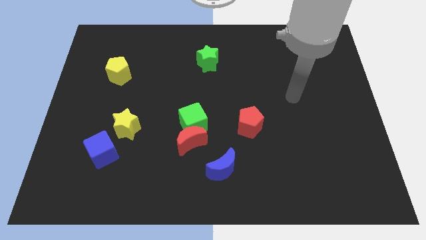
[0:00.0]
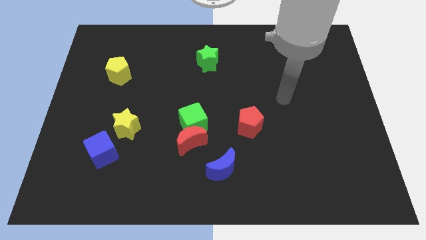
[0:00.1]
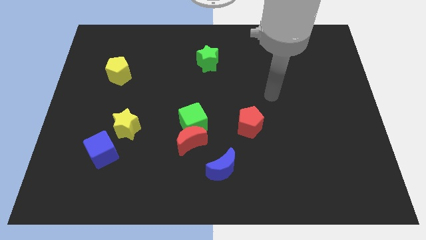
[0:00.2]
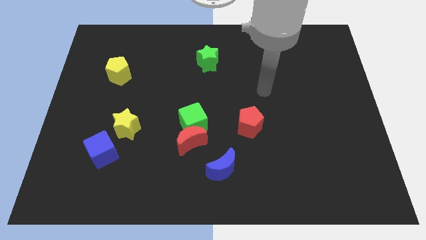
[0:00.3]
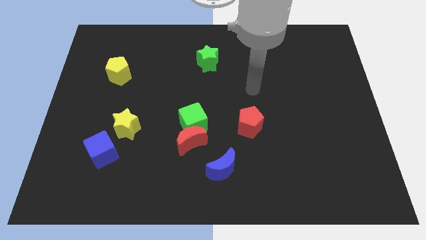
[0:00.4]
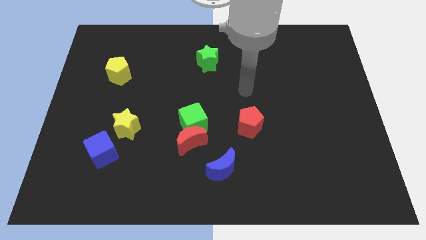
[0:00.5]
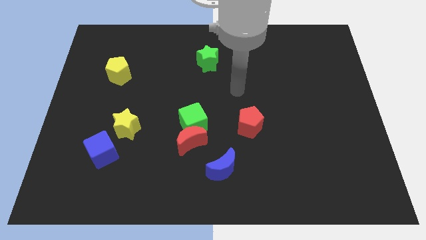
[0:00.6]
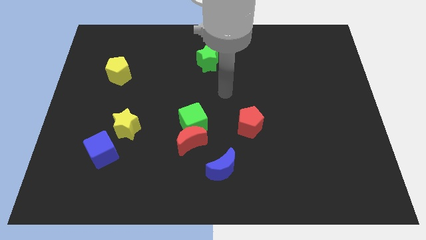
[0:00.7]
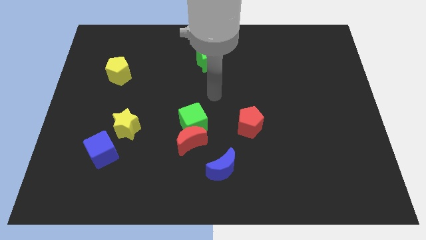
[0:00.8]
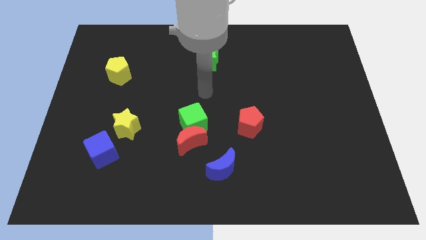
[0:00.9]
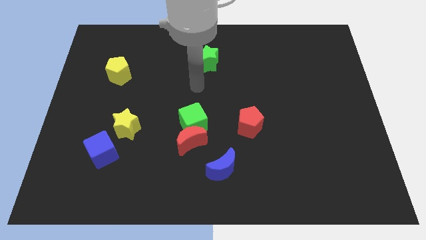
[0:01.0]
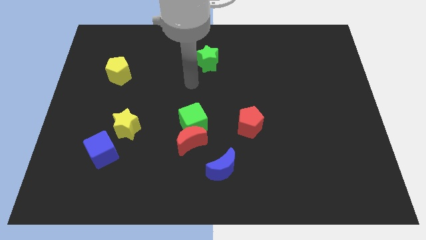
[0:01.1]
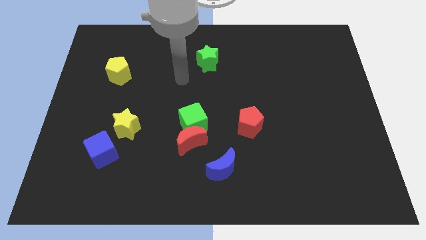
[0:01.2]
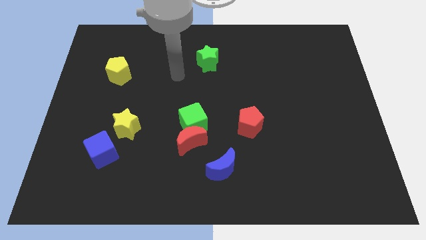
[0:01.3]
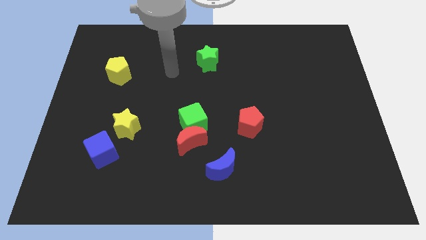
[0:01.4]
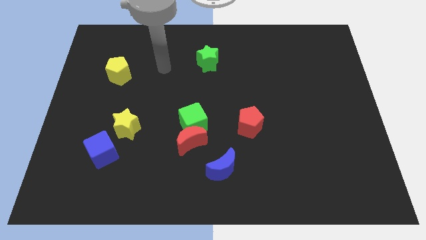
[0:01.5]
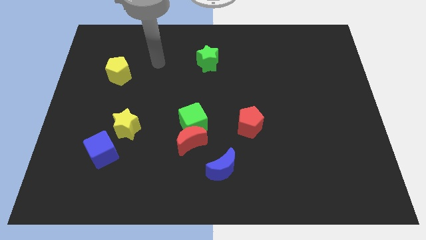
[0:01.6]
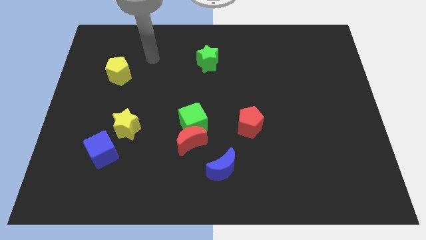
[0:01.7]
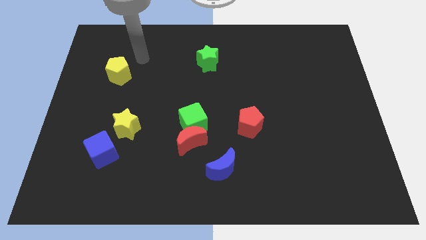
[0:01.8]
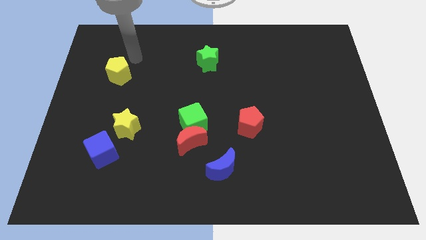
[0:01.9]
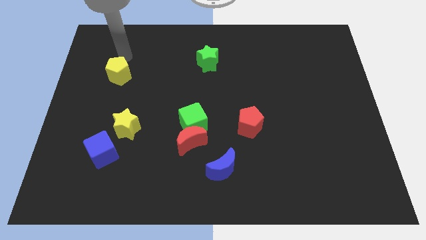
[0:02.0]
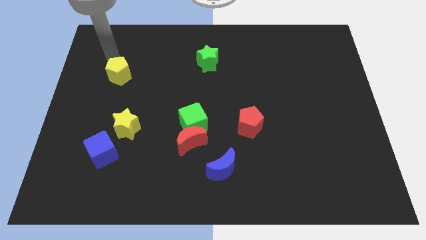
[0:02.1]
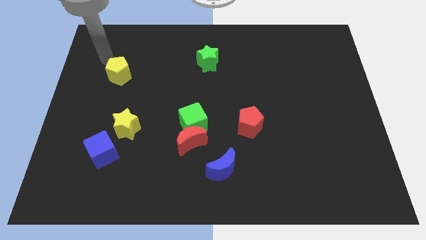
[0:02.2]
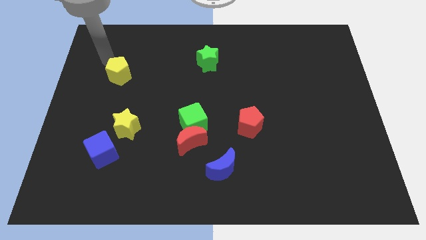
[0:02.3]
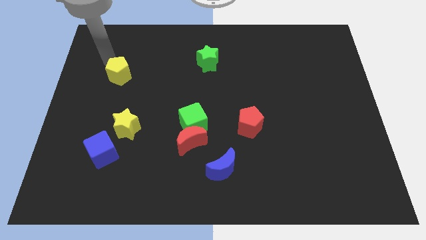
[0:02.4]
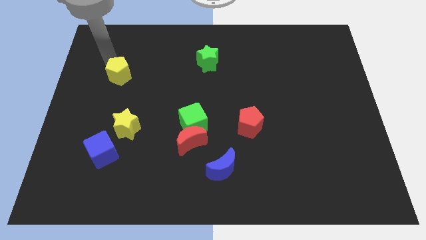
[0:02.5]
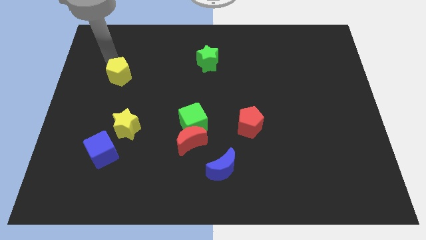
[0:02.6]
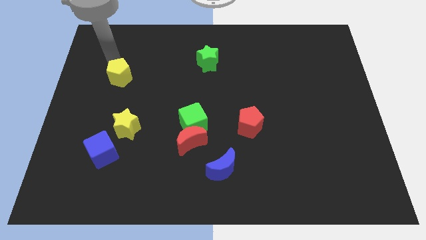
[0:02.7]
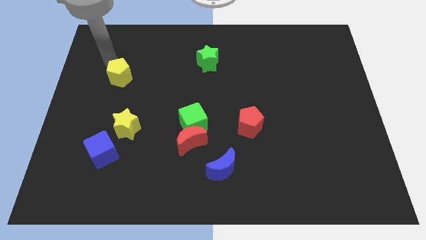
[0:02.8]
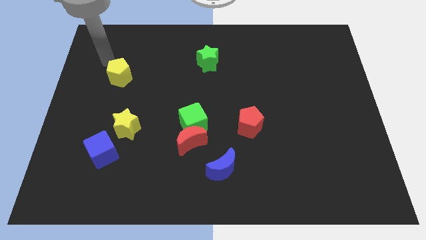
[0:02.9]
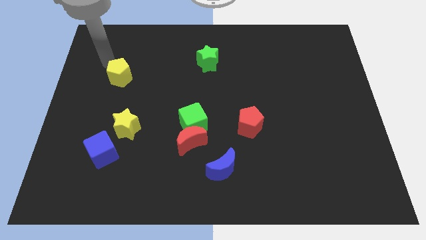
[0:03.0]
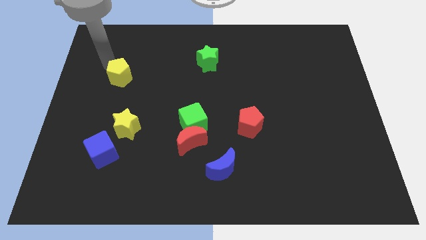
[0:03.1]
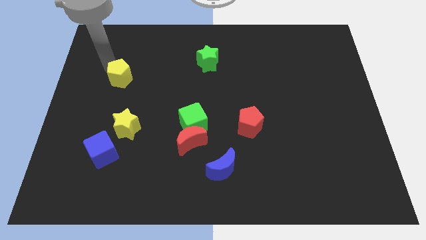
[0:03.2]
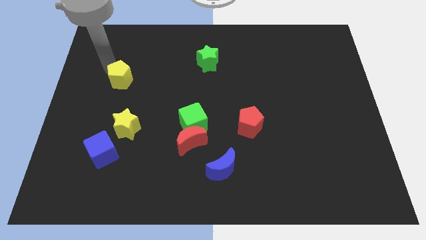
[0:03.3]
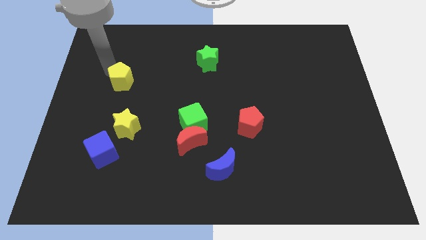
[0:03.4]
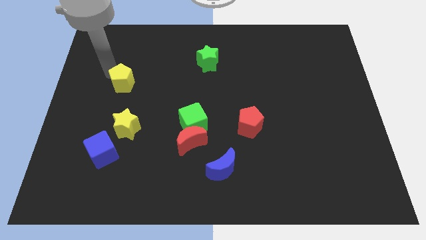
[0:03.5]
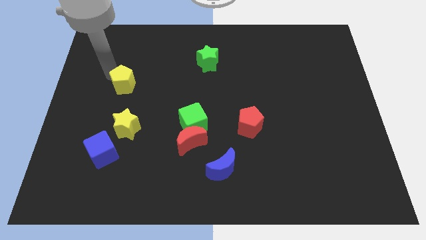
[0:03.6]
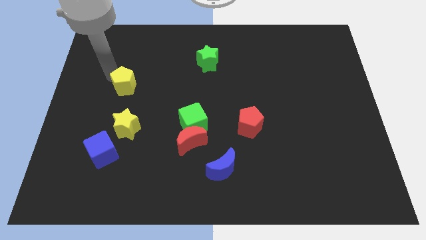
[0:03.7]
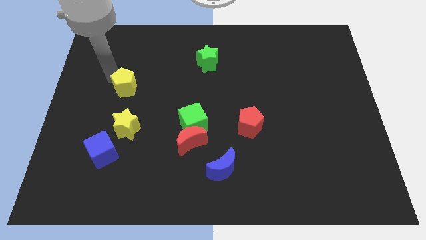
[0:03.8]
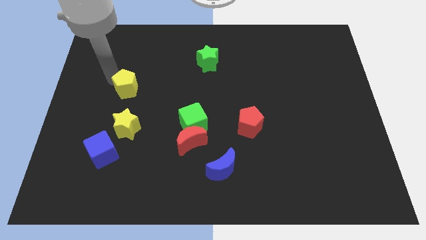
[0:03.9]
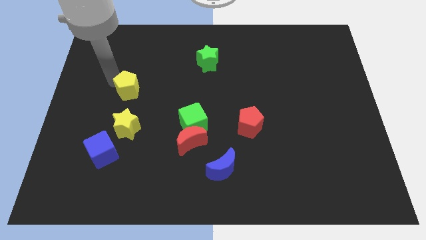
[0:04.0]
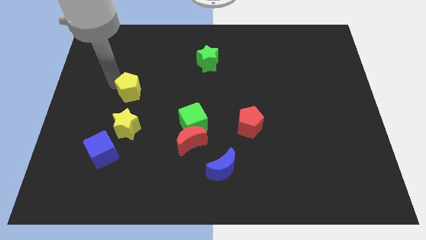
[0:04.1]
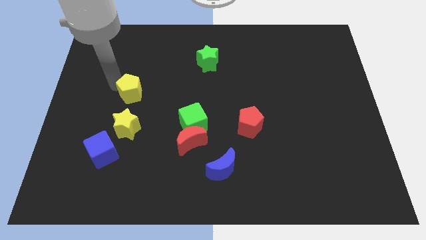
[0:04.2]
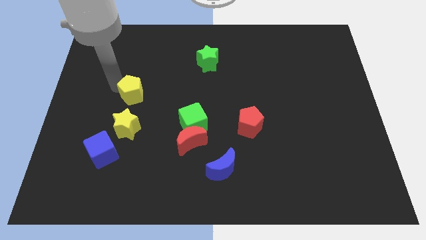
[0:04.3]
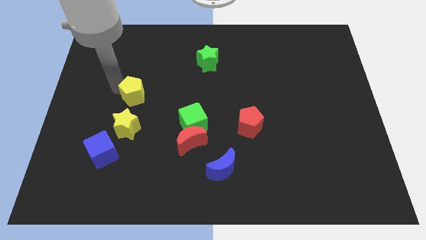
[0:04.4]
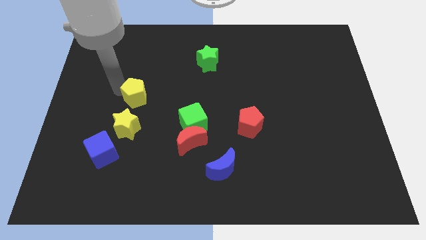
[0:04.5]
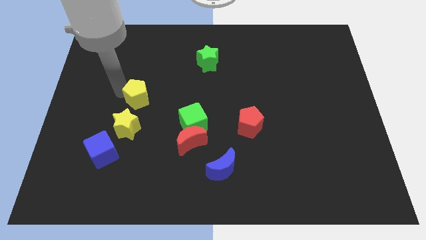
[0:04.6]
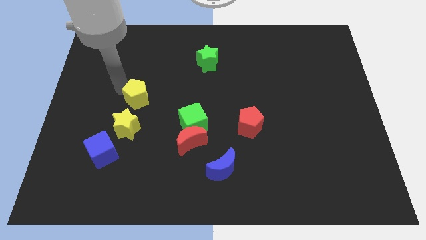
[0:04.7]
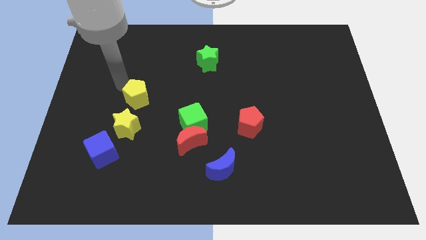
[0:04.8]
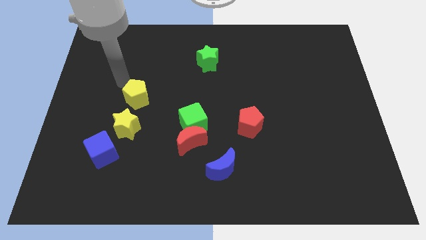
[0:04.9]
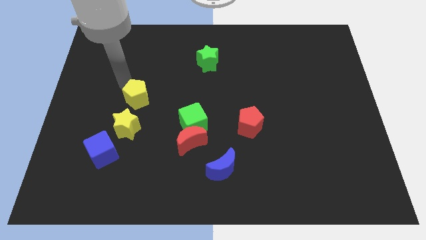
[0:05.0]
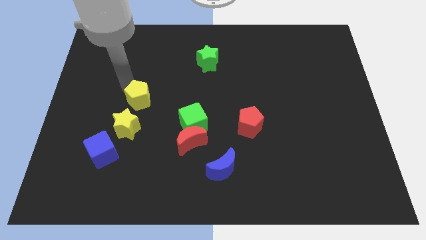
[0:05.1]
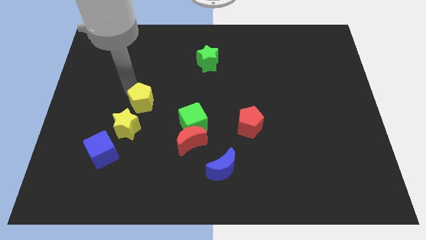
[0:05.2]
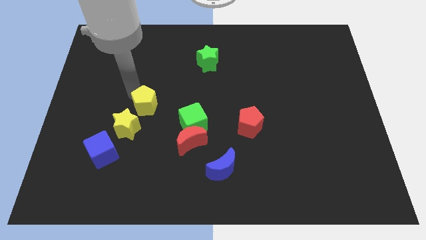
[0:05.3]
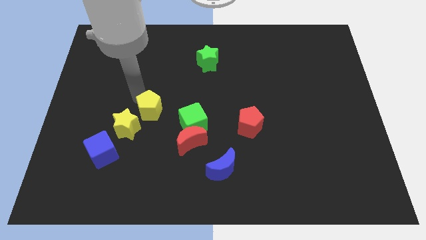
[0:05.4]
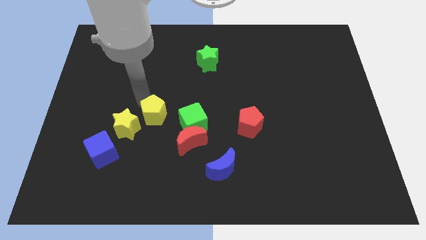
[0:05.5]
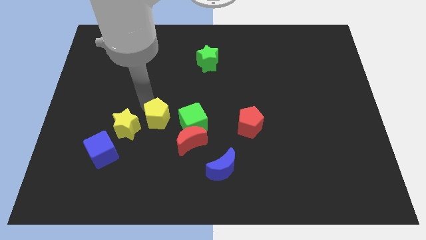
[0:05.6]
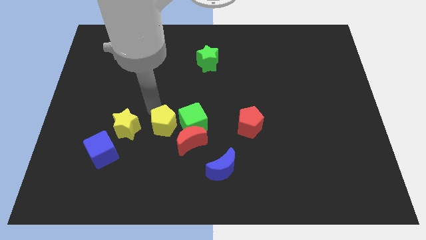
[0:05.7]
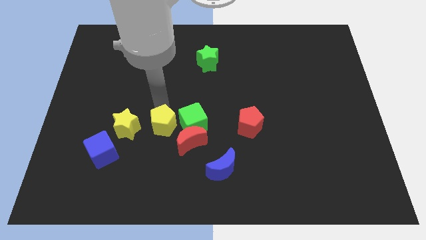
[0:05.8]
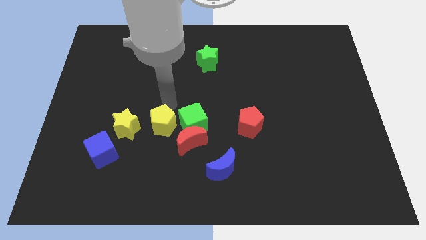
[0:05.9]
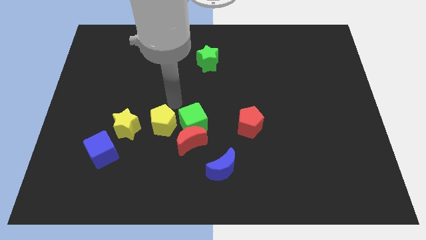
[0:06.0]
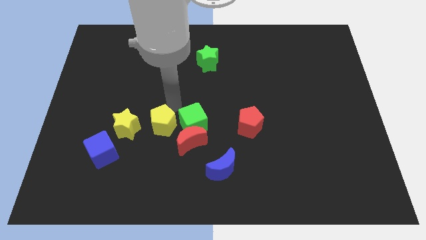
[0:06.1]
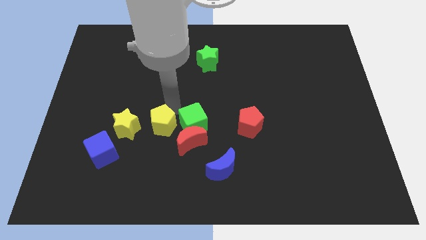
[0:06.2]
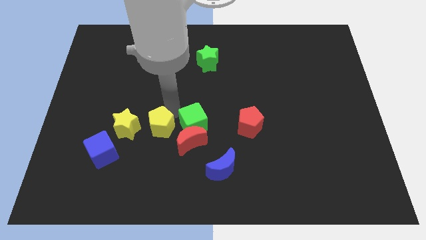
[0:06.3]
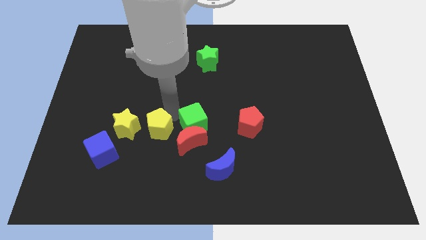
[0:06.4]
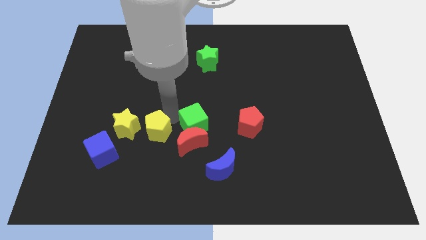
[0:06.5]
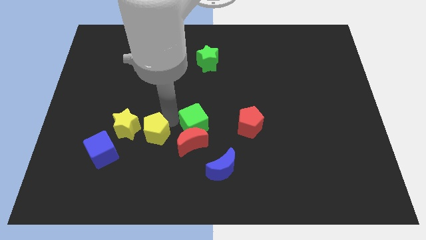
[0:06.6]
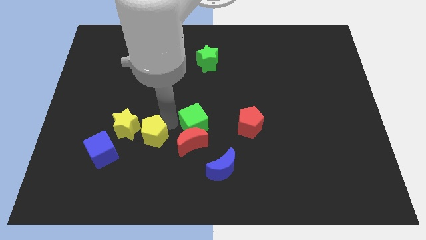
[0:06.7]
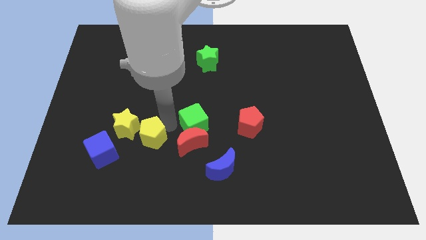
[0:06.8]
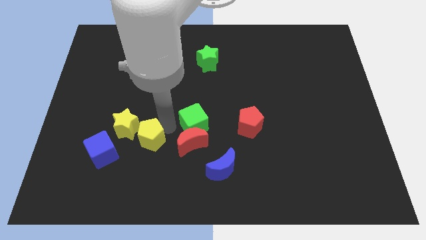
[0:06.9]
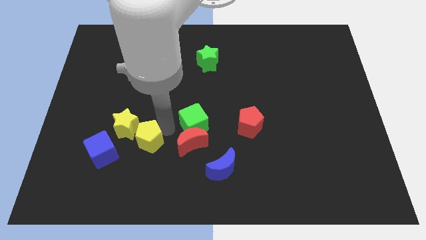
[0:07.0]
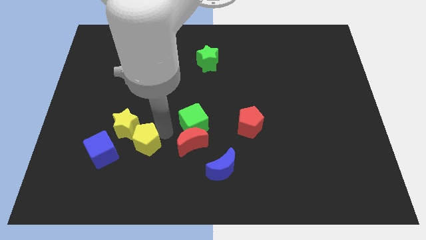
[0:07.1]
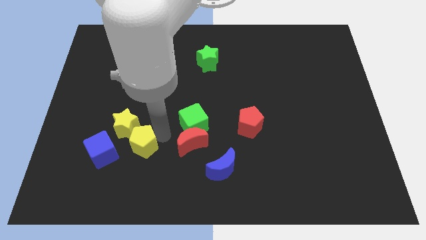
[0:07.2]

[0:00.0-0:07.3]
put the yellow pentagon to the bottom side of the yellow star
